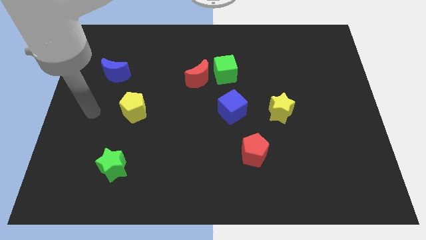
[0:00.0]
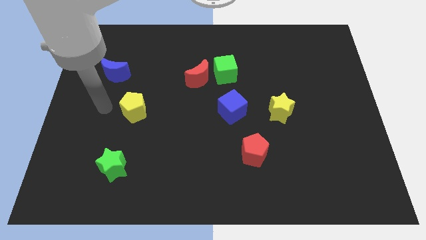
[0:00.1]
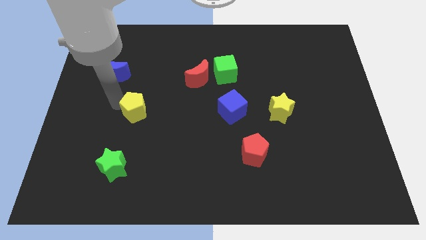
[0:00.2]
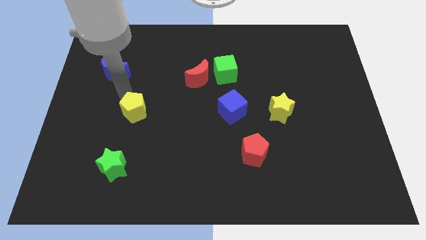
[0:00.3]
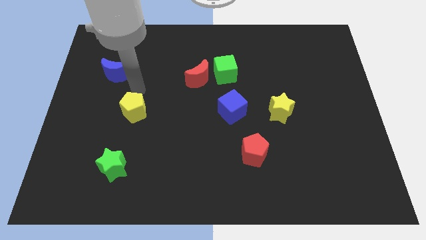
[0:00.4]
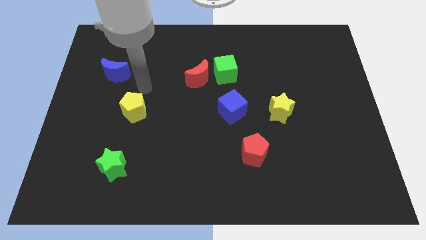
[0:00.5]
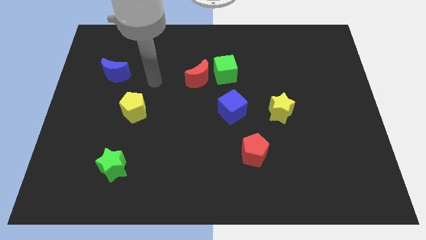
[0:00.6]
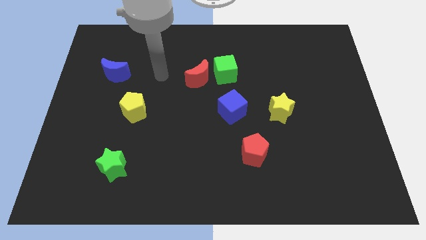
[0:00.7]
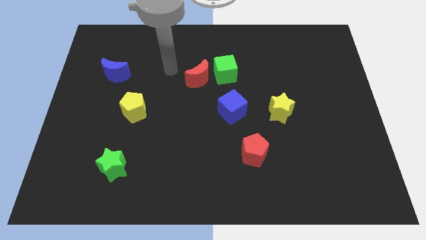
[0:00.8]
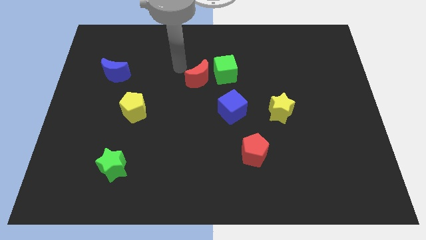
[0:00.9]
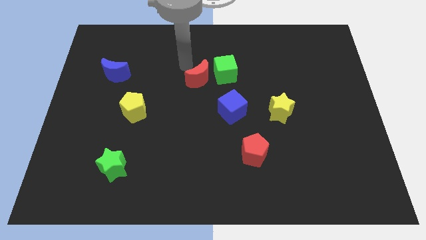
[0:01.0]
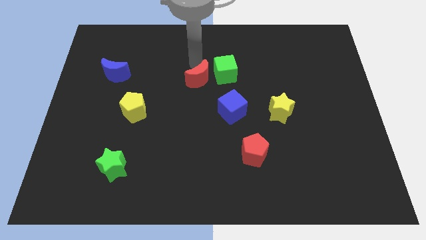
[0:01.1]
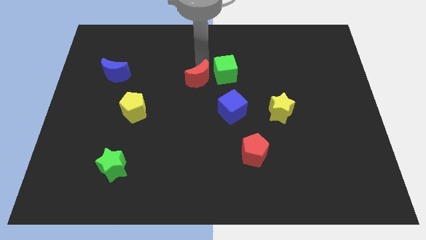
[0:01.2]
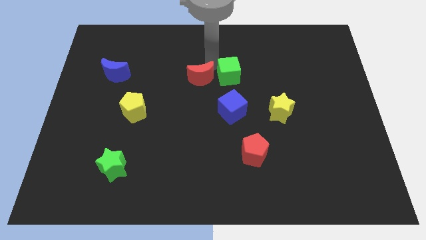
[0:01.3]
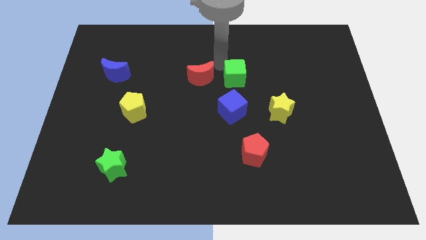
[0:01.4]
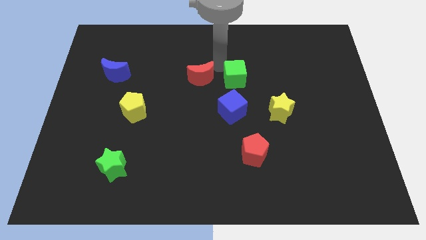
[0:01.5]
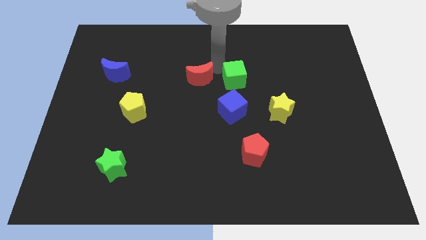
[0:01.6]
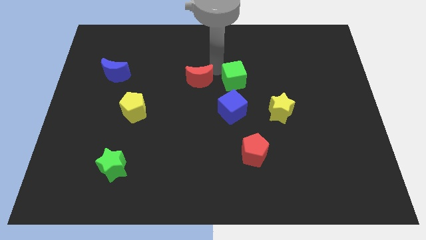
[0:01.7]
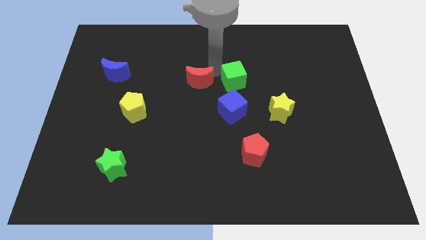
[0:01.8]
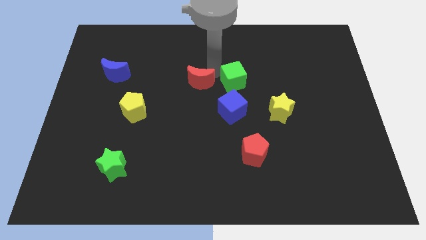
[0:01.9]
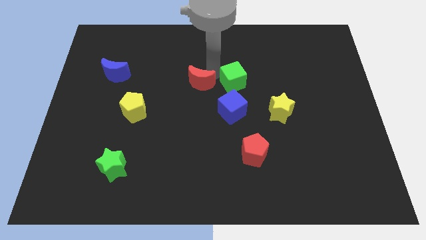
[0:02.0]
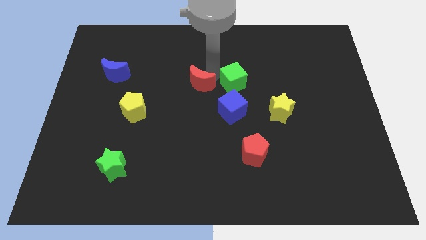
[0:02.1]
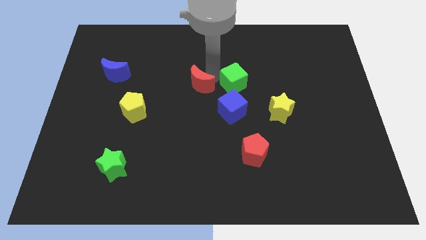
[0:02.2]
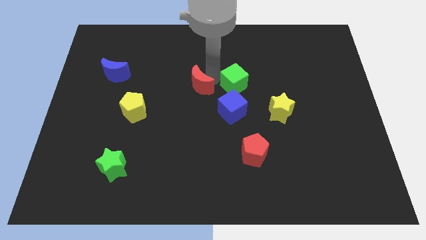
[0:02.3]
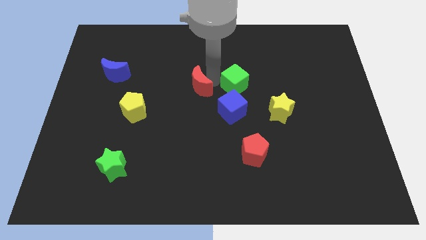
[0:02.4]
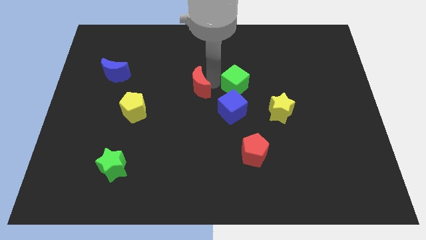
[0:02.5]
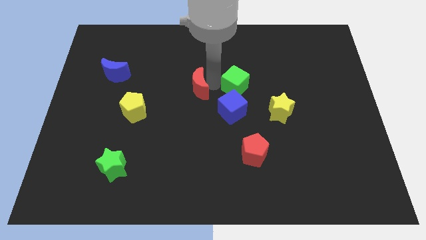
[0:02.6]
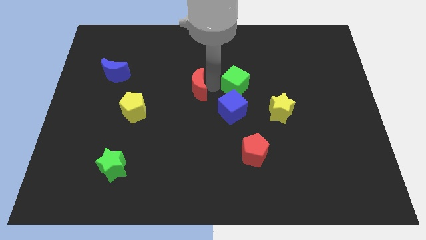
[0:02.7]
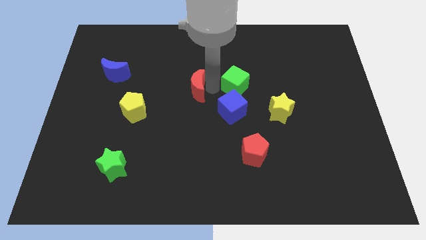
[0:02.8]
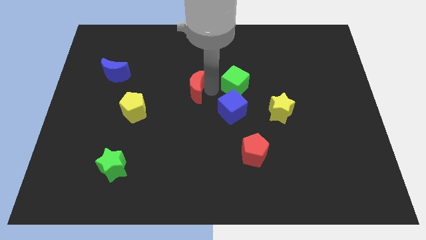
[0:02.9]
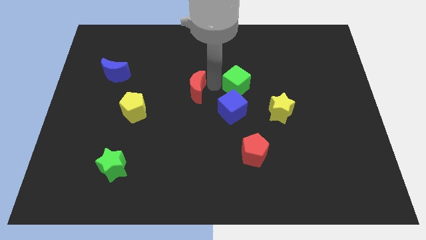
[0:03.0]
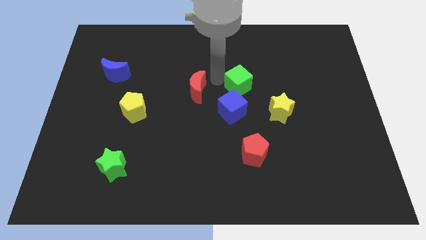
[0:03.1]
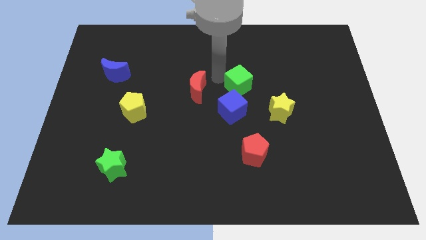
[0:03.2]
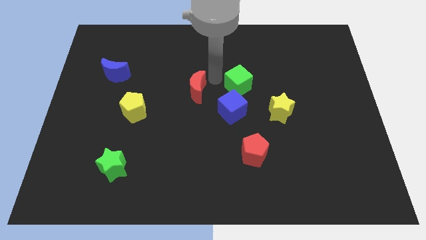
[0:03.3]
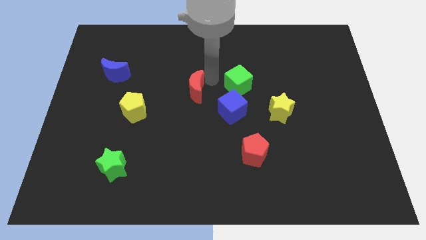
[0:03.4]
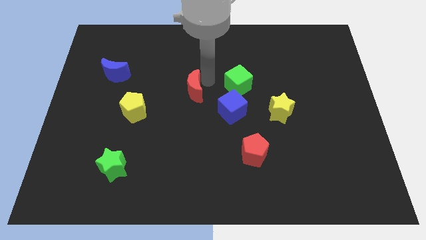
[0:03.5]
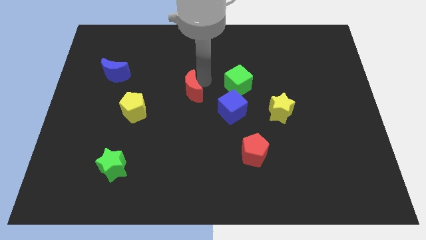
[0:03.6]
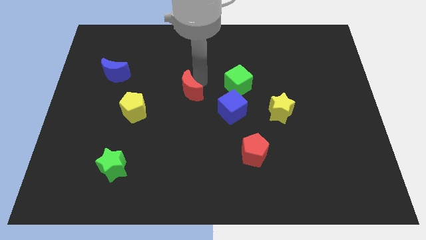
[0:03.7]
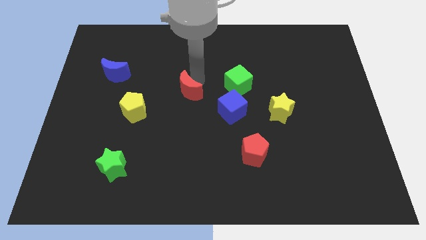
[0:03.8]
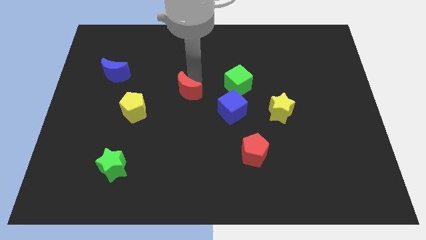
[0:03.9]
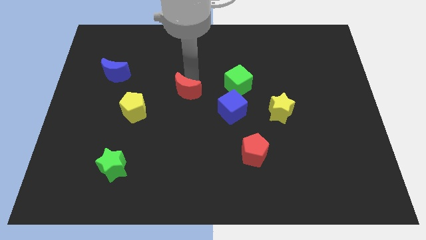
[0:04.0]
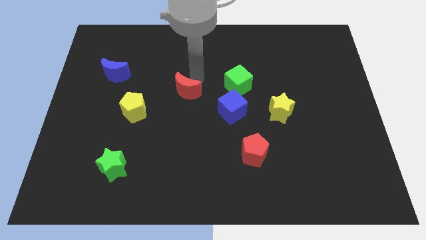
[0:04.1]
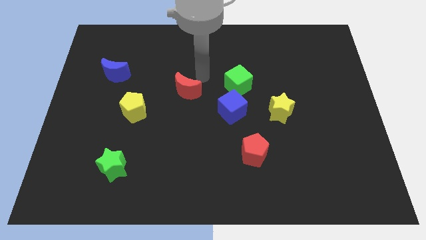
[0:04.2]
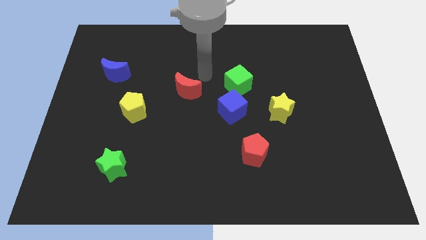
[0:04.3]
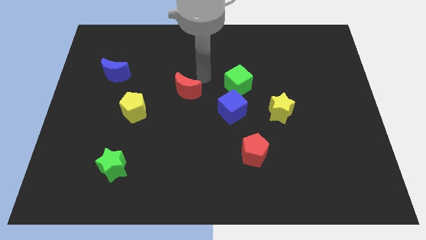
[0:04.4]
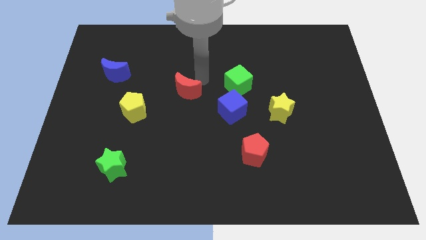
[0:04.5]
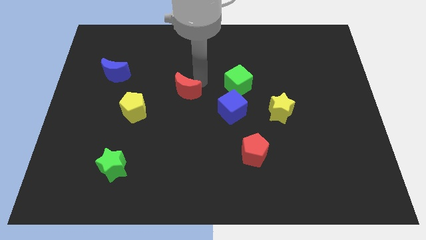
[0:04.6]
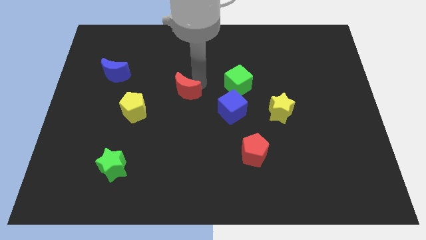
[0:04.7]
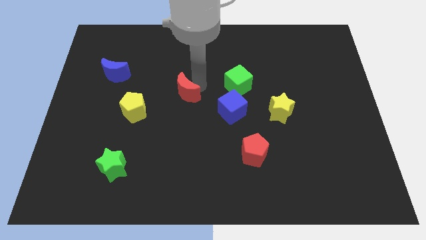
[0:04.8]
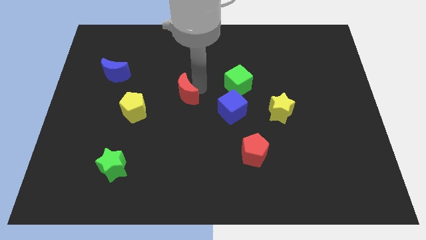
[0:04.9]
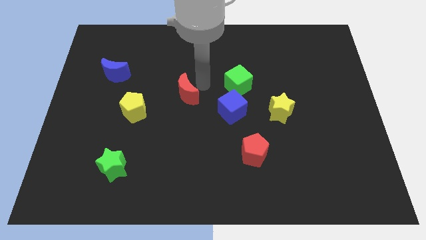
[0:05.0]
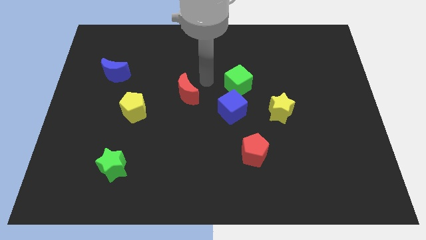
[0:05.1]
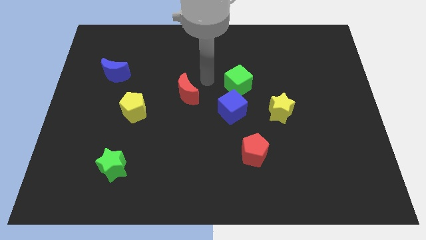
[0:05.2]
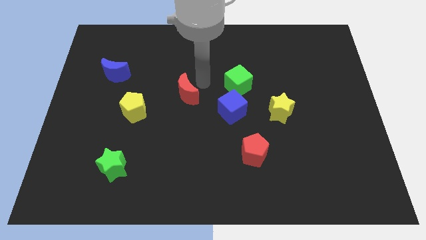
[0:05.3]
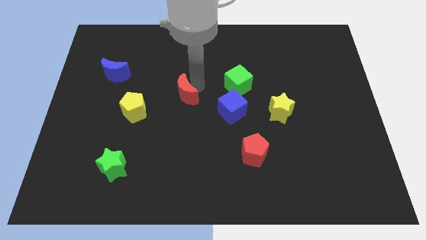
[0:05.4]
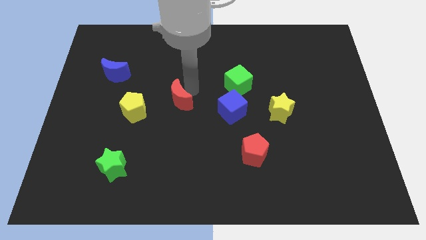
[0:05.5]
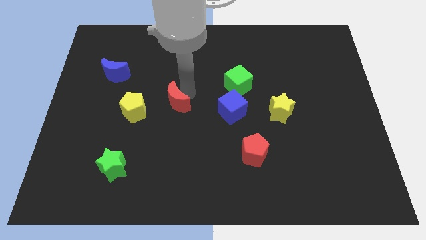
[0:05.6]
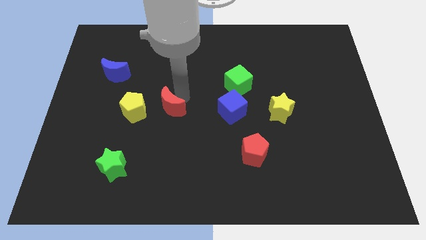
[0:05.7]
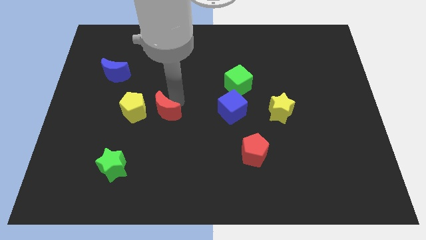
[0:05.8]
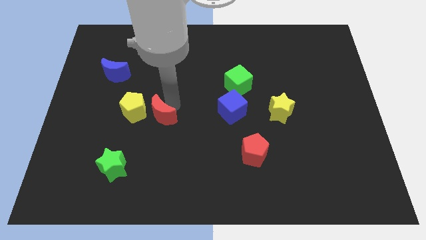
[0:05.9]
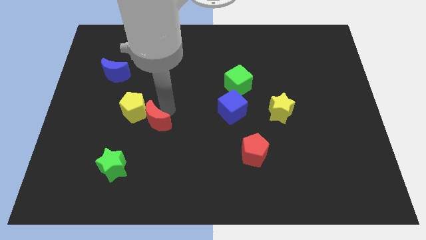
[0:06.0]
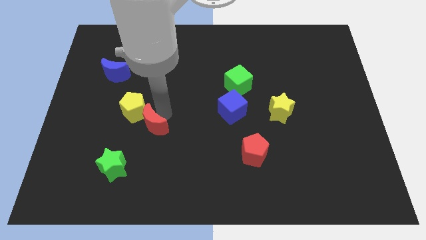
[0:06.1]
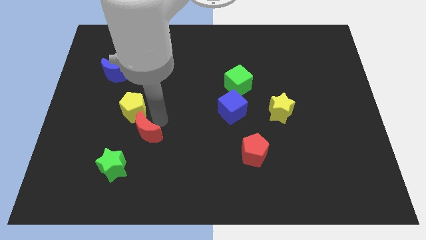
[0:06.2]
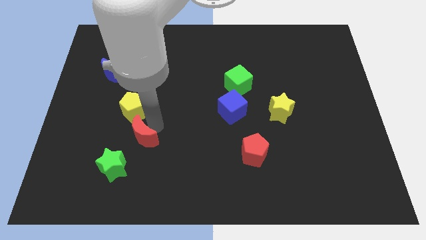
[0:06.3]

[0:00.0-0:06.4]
push the red moon down and then to the left

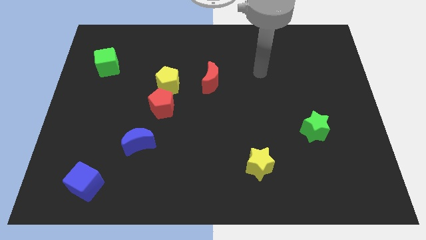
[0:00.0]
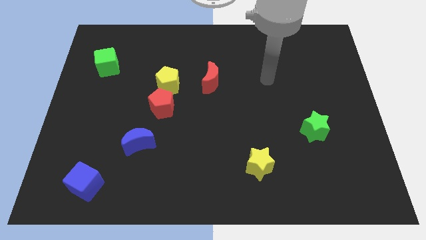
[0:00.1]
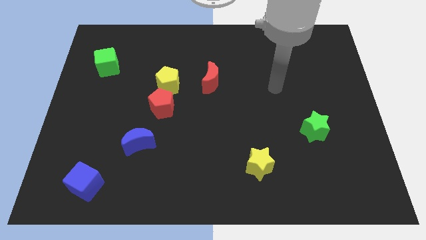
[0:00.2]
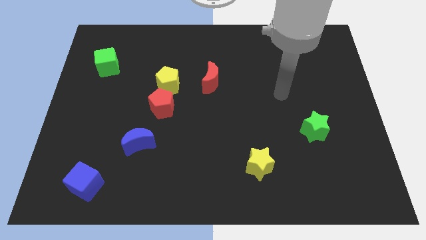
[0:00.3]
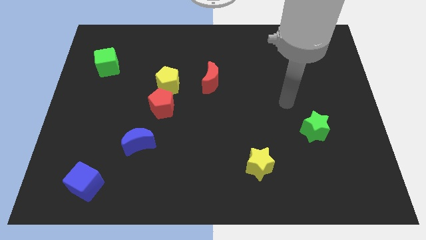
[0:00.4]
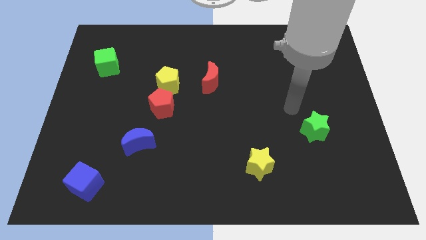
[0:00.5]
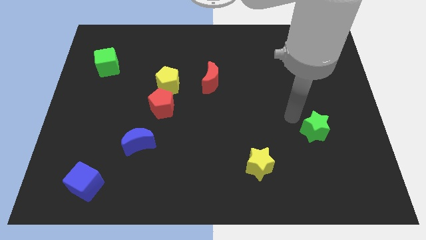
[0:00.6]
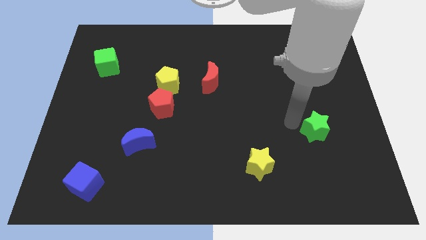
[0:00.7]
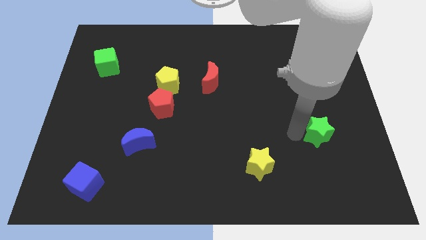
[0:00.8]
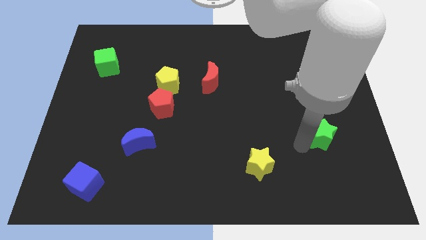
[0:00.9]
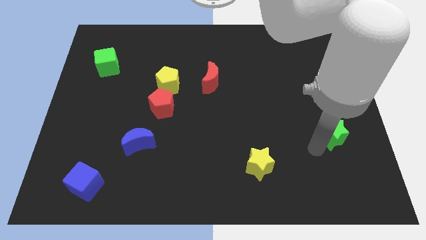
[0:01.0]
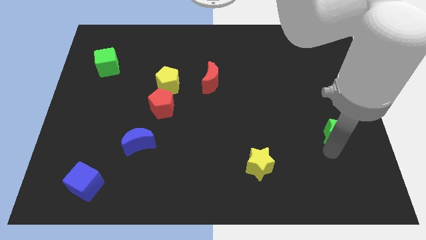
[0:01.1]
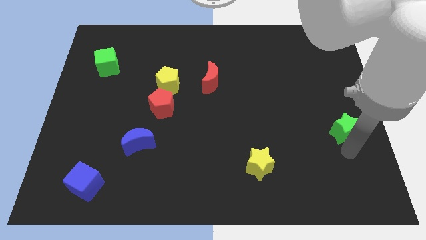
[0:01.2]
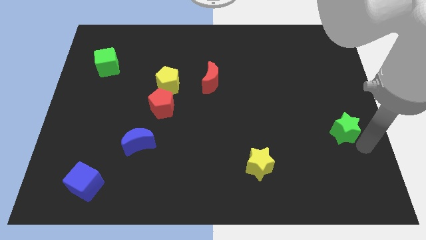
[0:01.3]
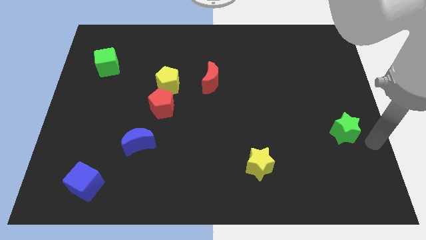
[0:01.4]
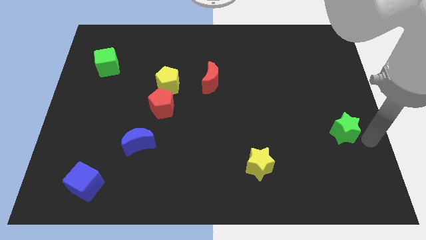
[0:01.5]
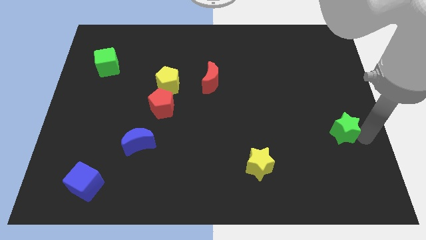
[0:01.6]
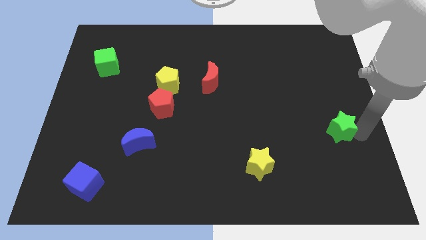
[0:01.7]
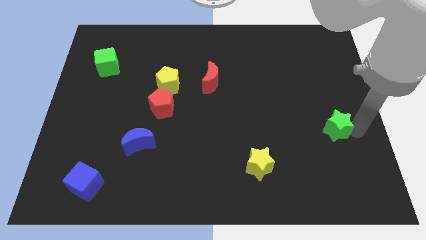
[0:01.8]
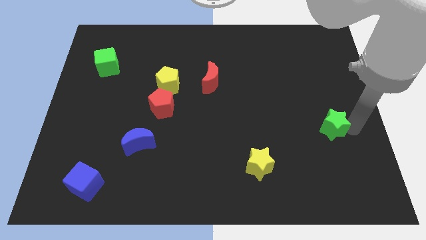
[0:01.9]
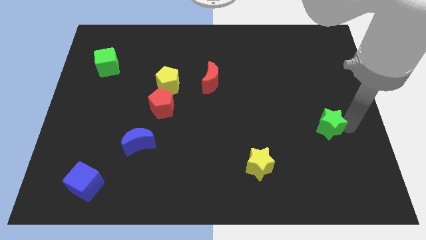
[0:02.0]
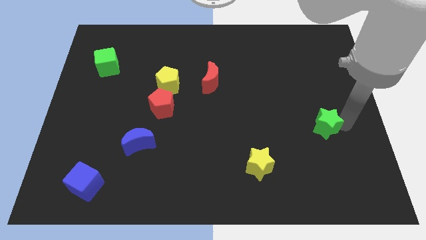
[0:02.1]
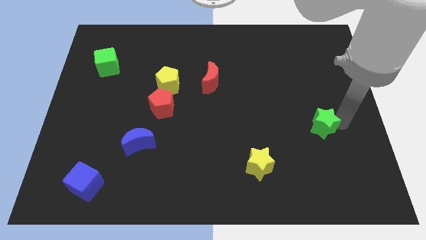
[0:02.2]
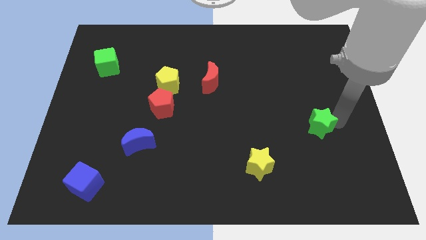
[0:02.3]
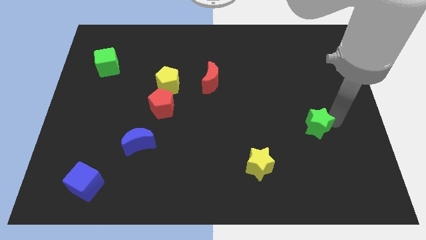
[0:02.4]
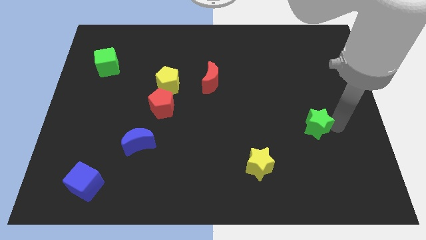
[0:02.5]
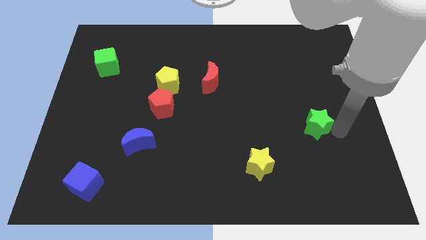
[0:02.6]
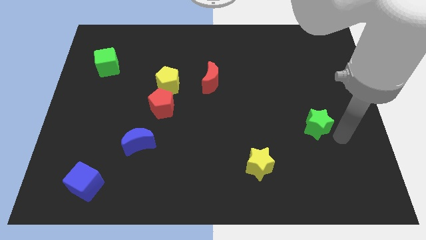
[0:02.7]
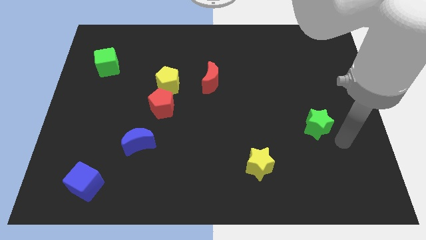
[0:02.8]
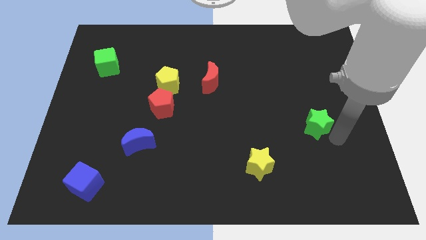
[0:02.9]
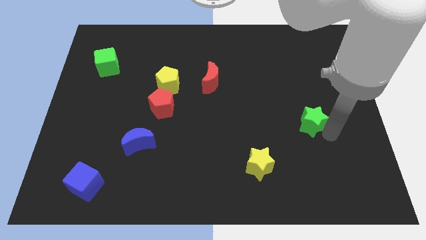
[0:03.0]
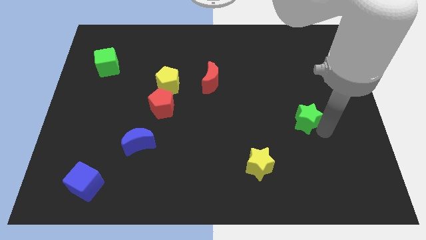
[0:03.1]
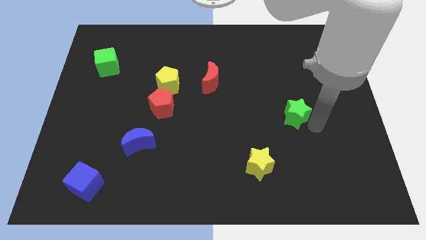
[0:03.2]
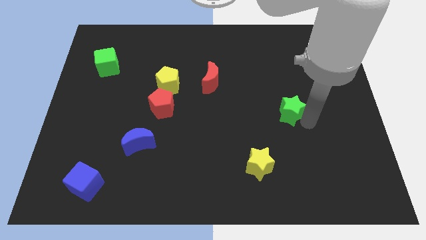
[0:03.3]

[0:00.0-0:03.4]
slide the green star upwards and left diagonally a little
